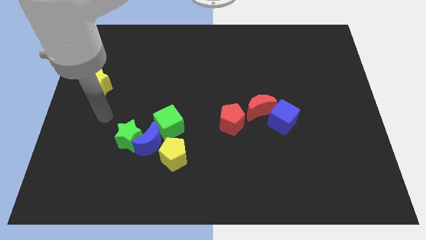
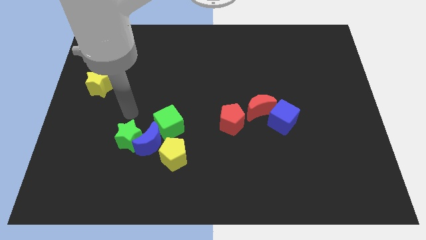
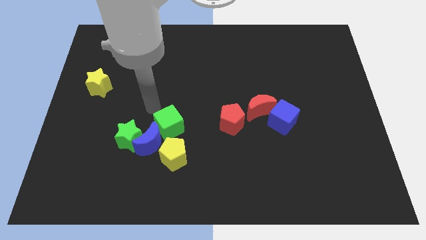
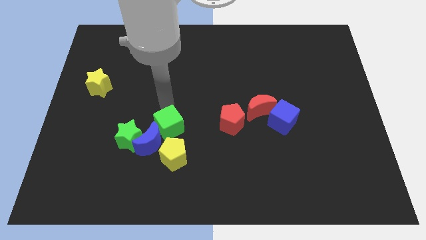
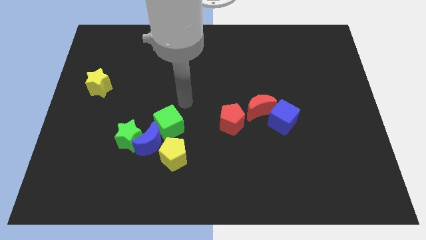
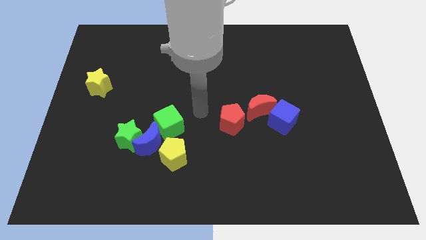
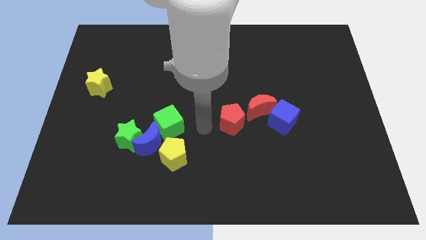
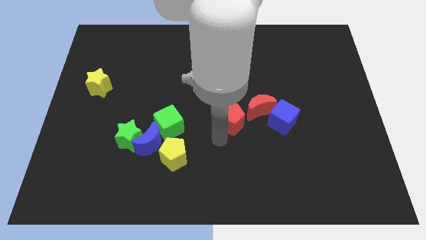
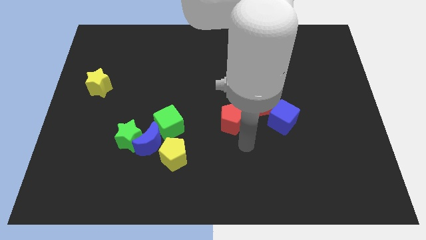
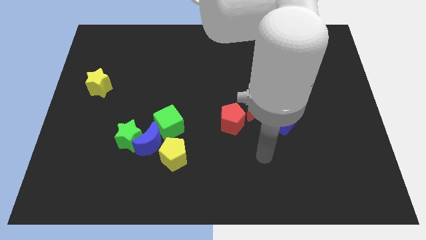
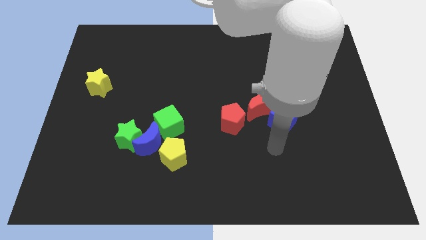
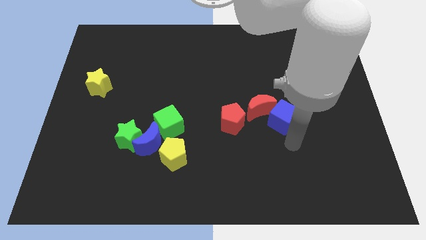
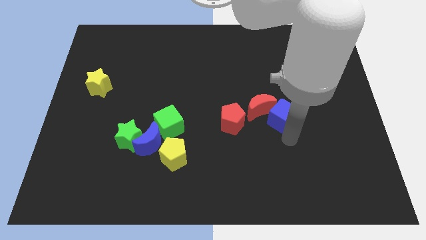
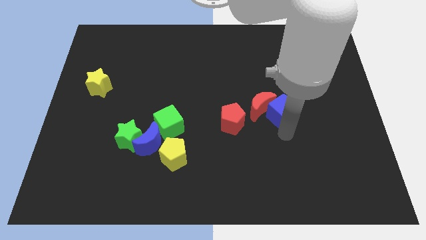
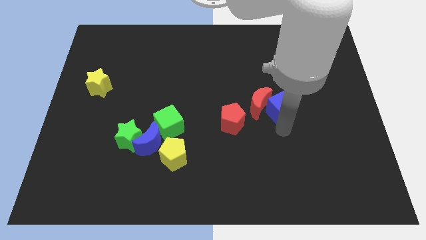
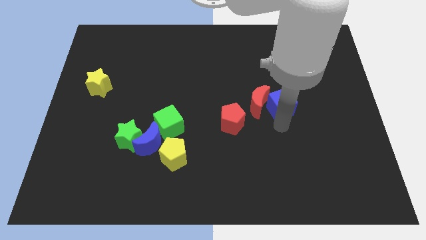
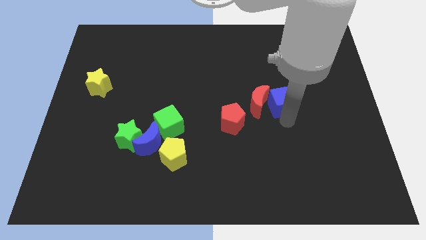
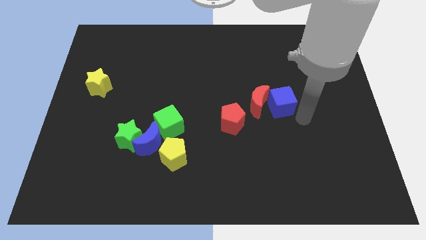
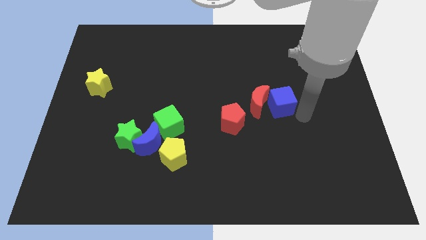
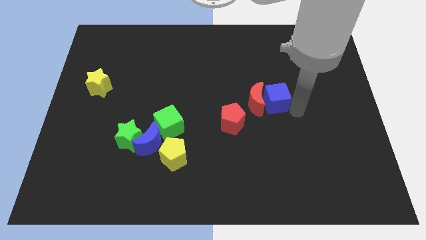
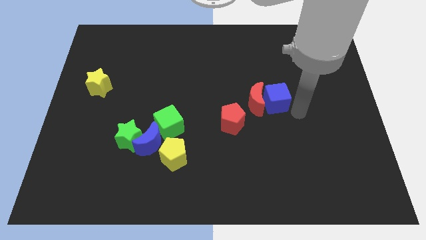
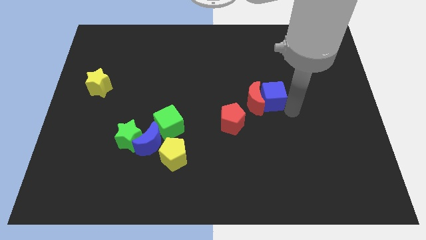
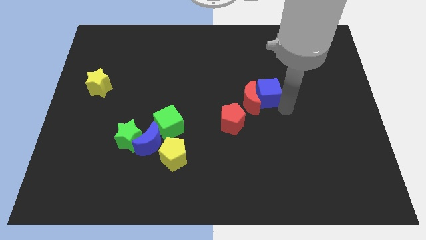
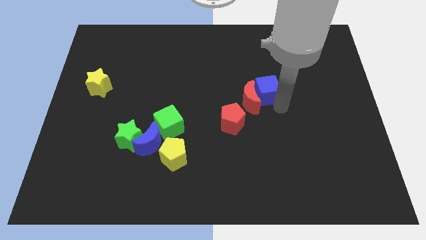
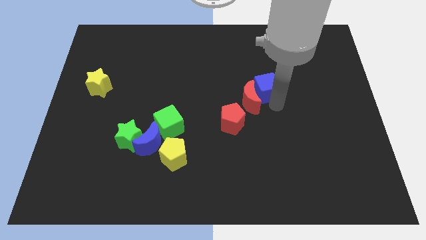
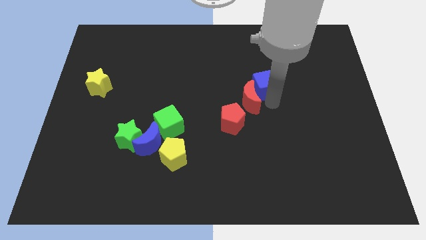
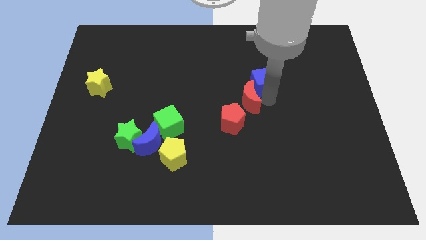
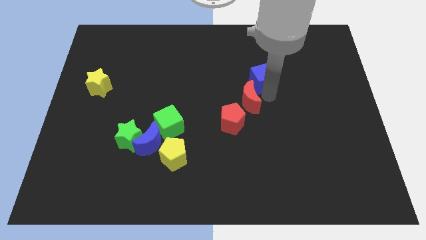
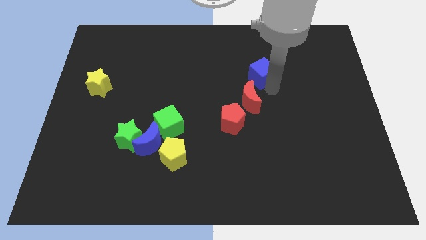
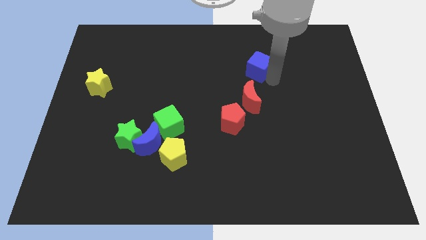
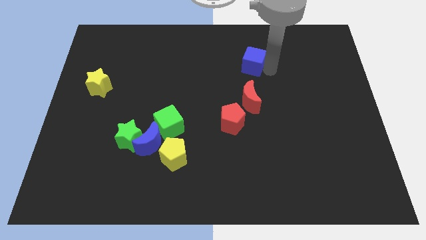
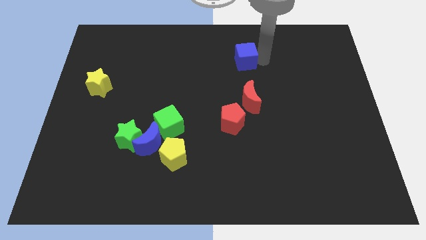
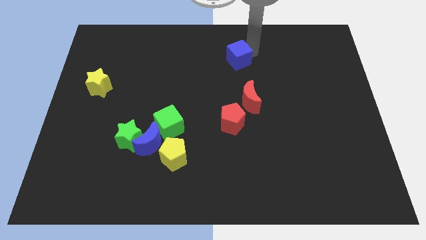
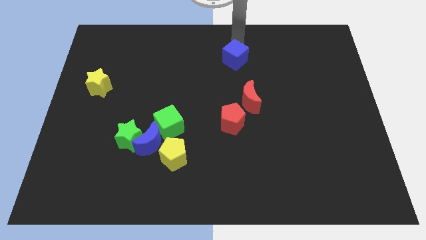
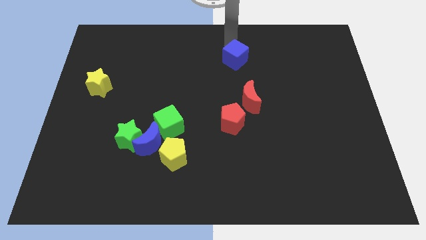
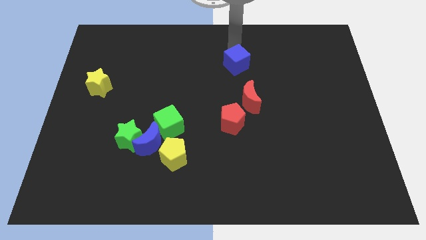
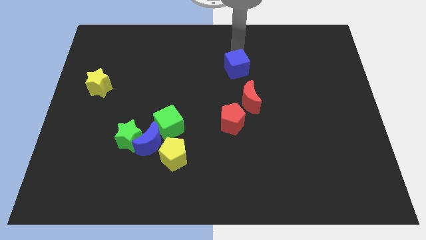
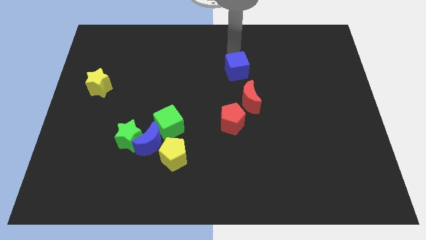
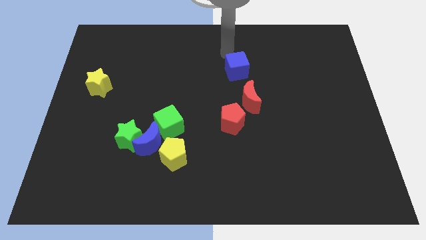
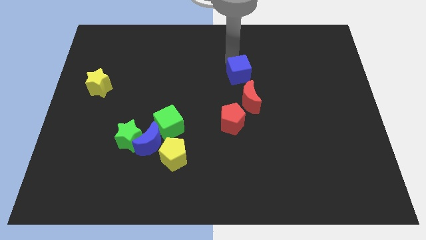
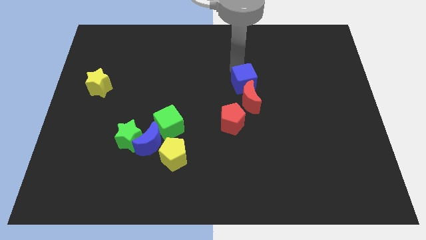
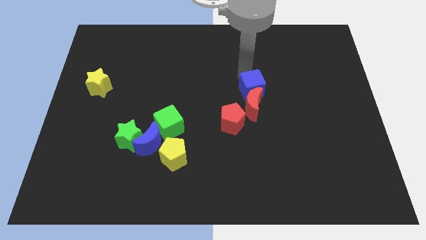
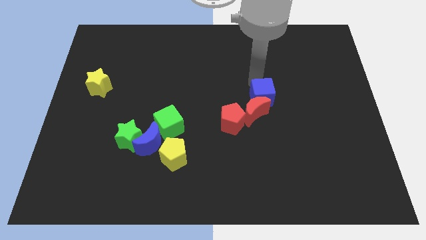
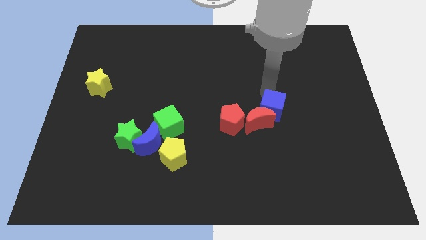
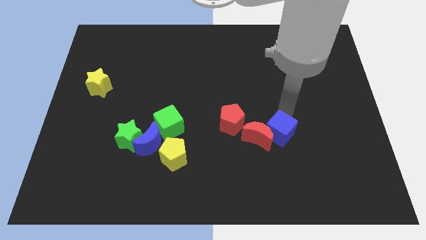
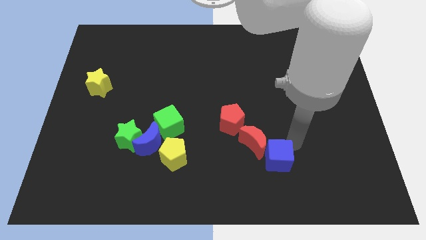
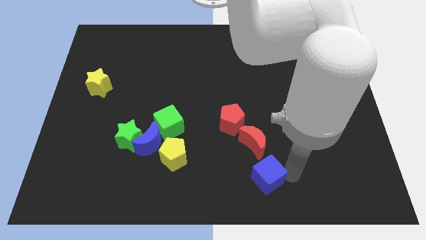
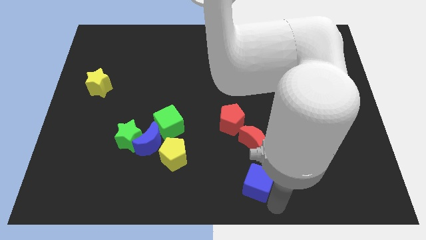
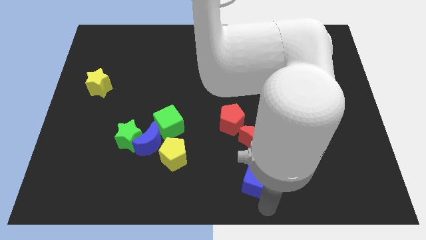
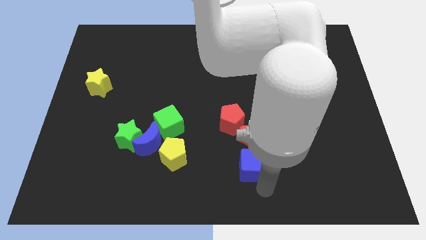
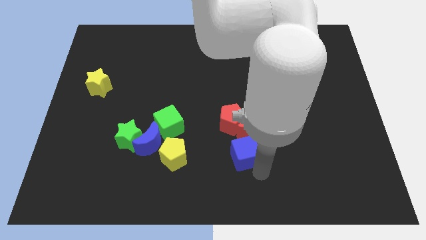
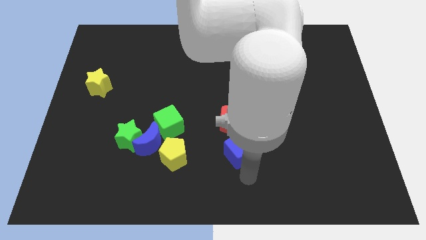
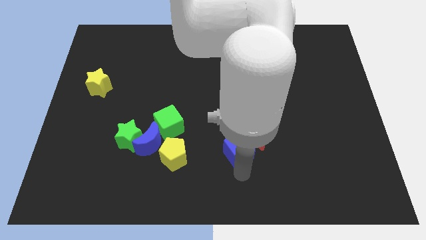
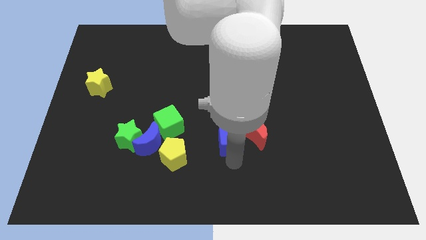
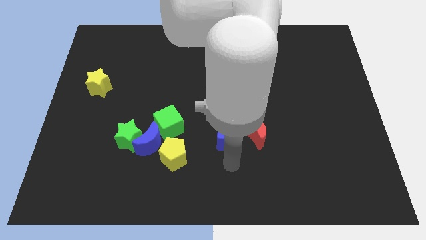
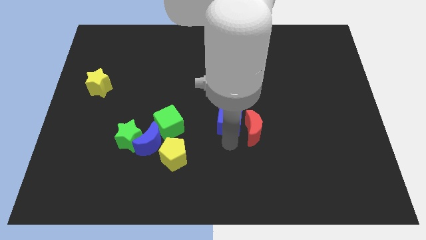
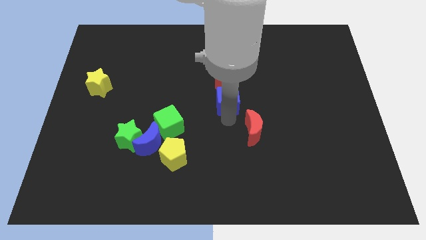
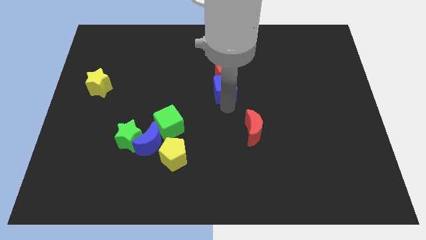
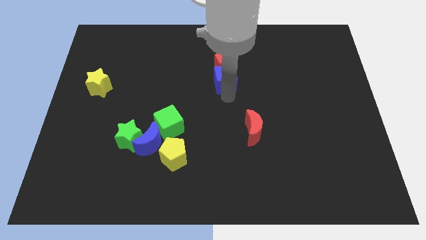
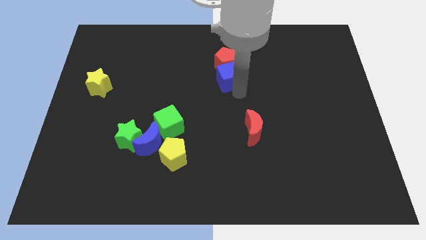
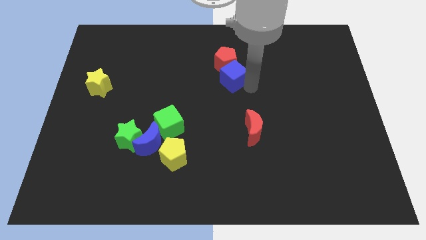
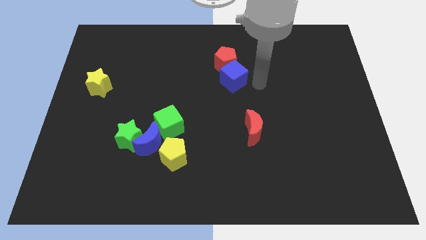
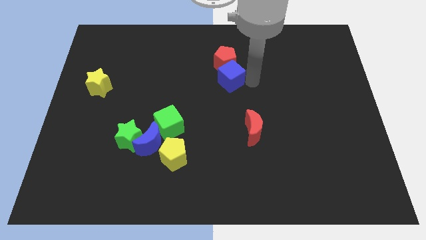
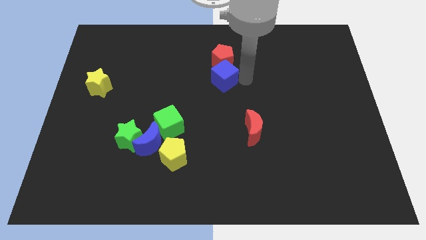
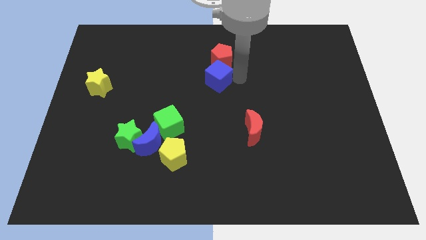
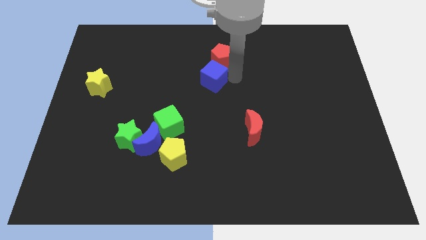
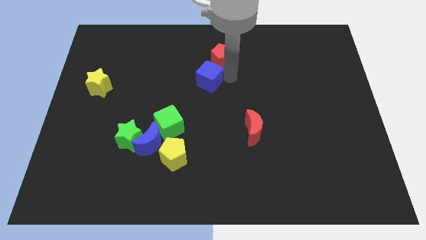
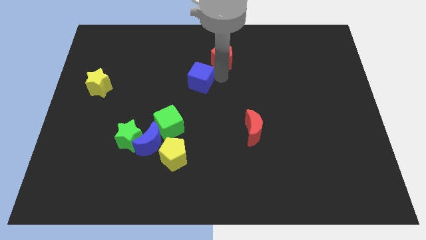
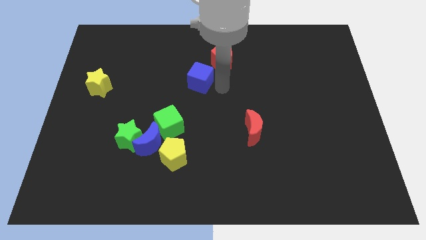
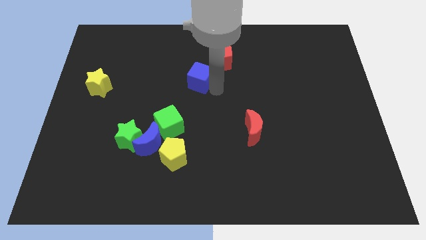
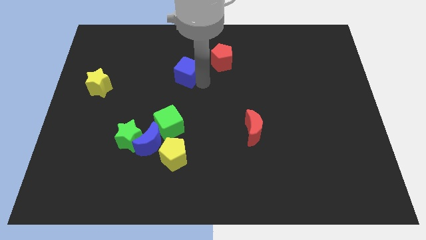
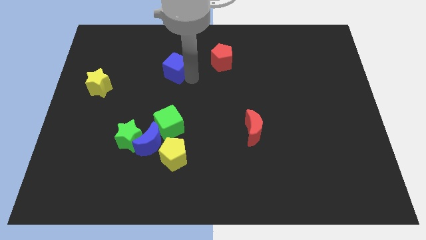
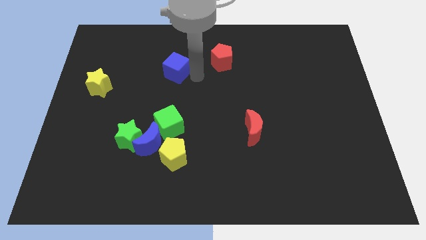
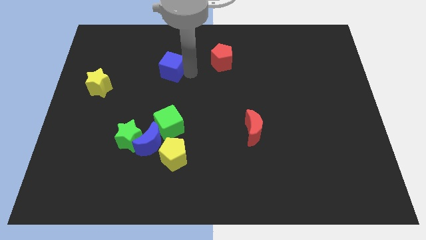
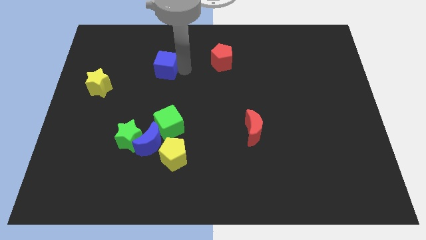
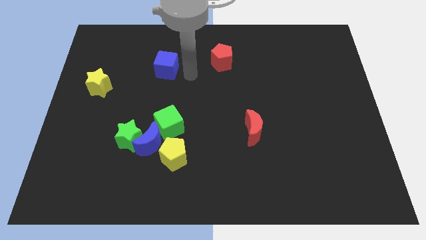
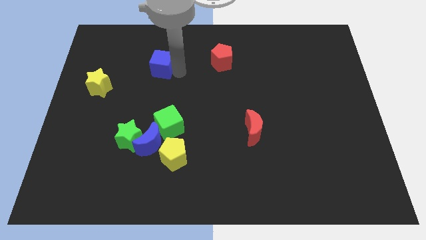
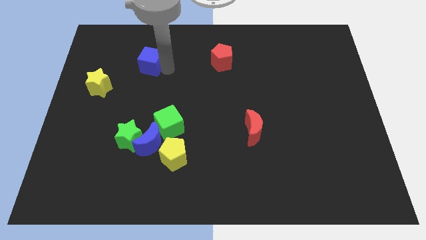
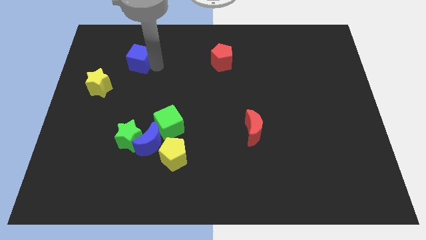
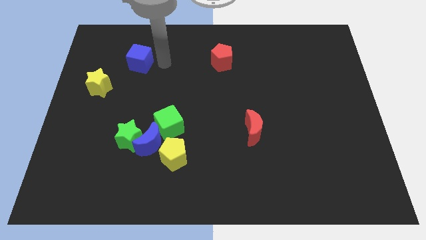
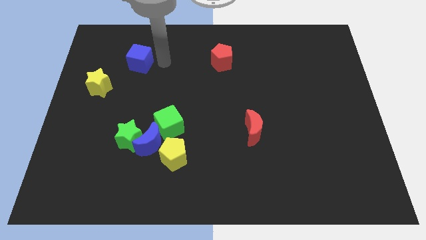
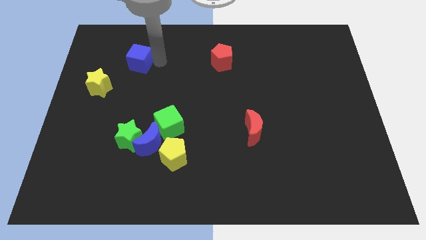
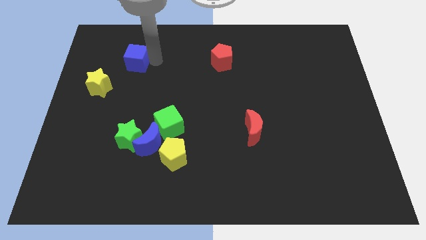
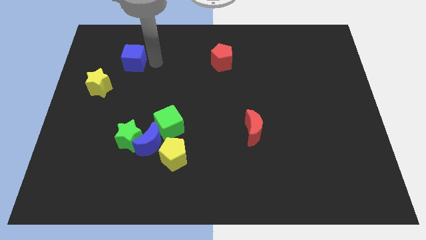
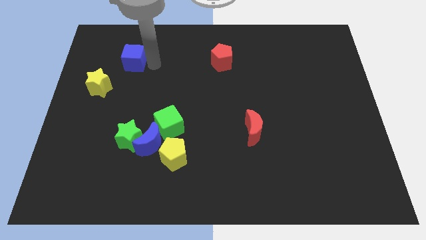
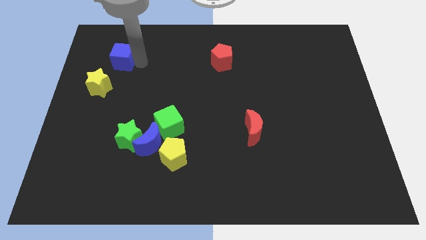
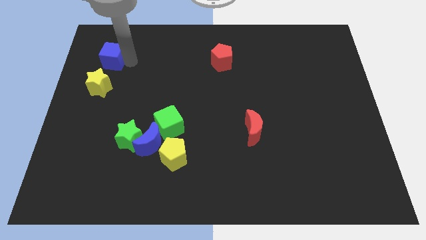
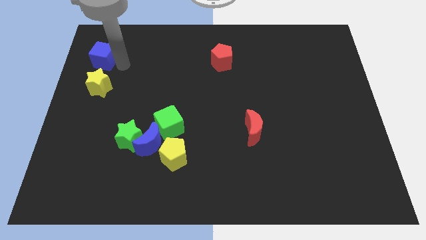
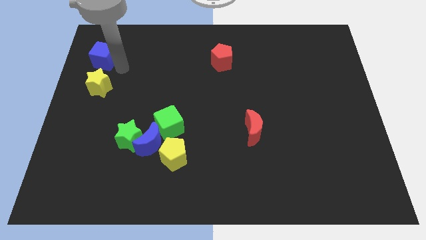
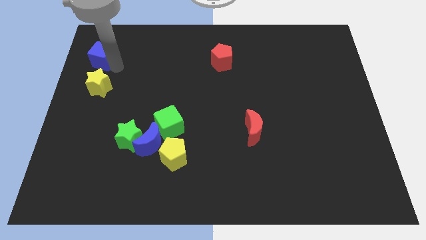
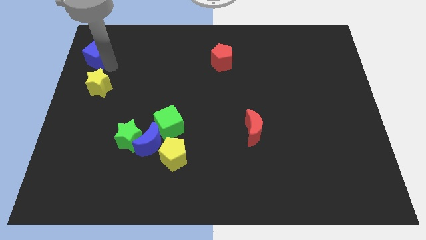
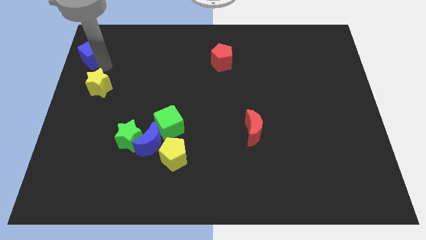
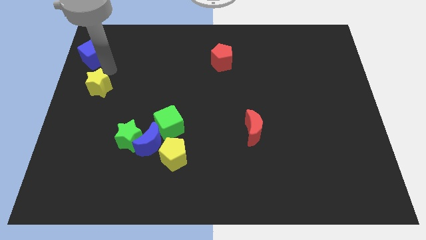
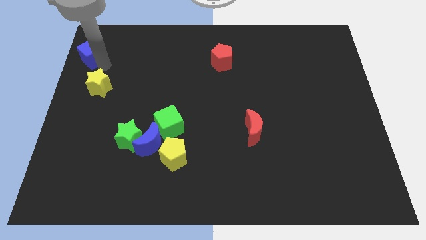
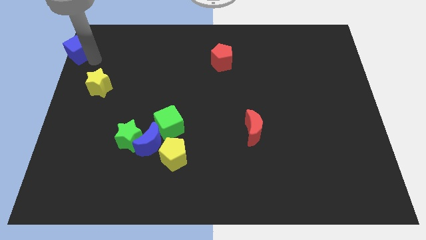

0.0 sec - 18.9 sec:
slide the blue cube to the top left corner
